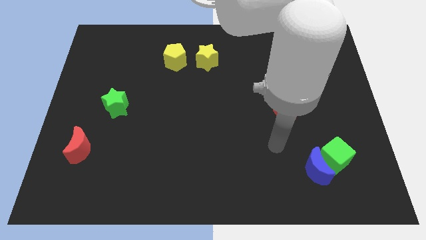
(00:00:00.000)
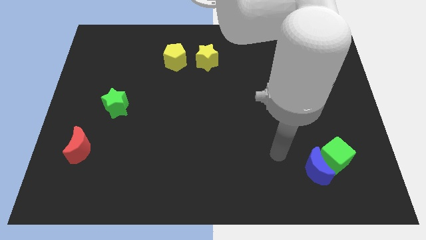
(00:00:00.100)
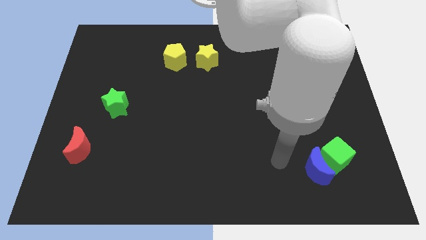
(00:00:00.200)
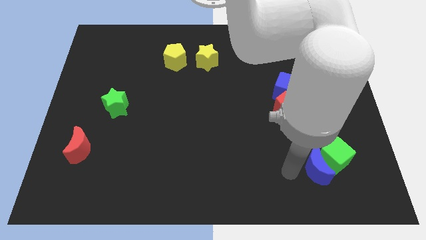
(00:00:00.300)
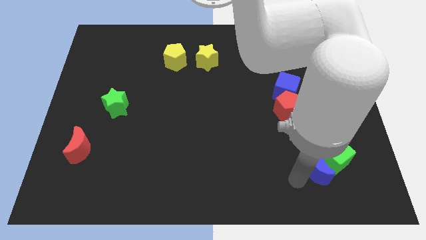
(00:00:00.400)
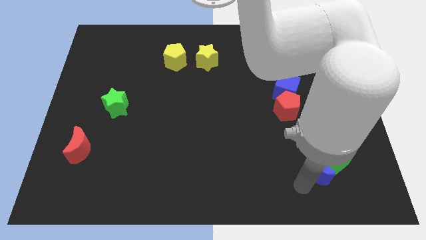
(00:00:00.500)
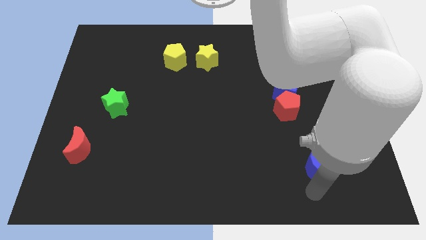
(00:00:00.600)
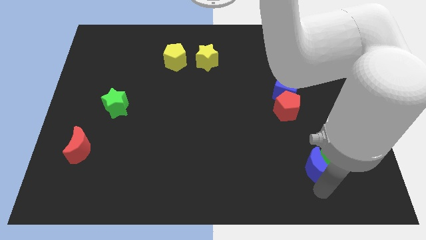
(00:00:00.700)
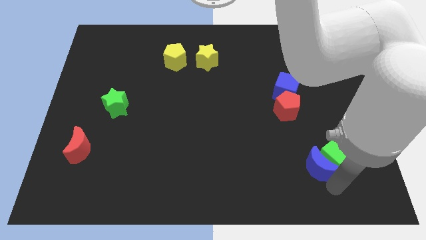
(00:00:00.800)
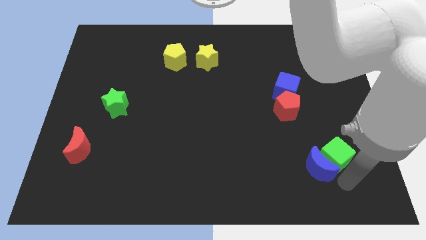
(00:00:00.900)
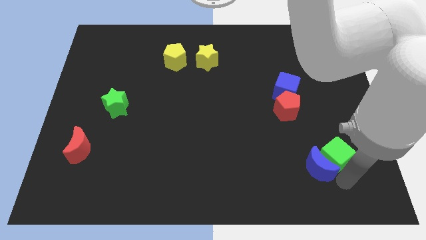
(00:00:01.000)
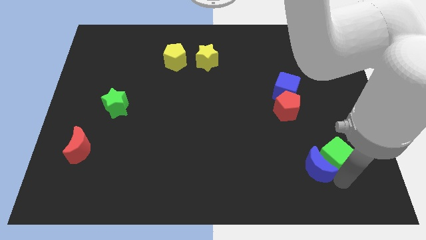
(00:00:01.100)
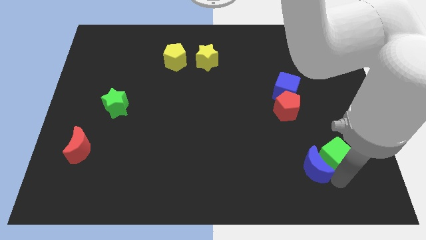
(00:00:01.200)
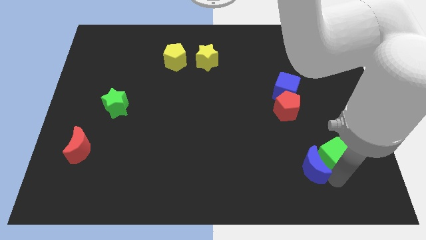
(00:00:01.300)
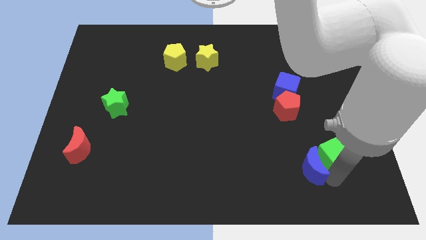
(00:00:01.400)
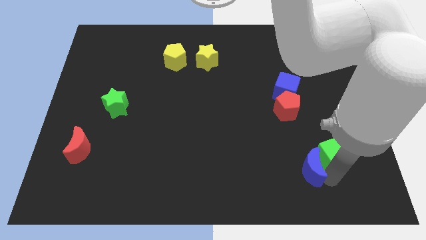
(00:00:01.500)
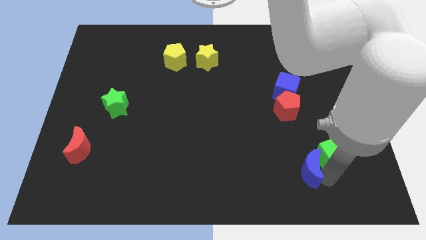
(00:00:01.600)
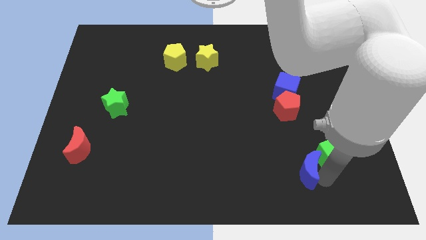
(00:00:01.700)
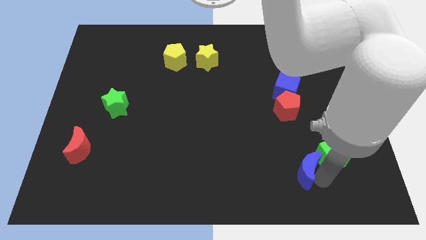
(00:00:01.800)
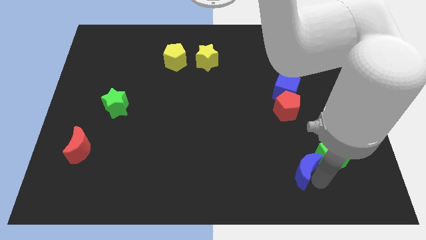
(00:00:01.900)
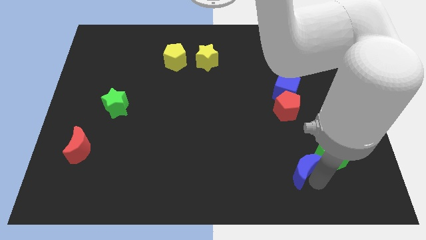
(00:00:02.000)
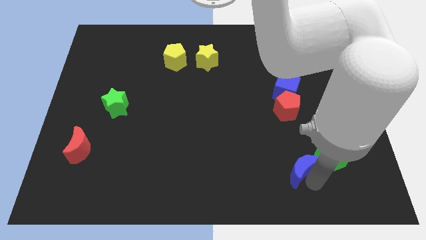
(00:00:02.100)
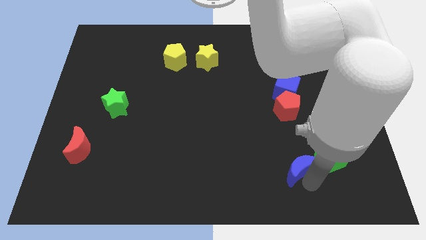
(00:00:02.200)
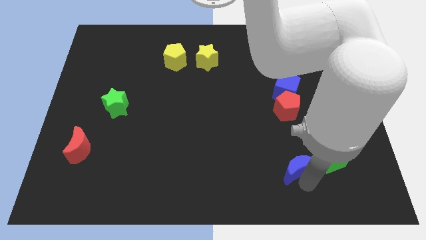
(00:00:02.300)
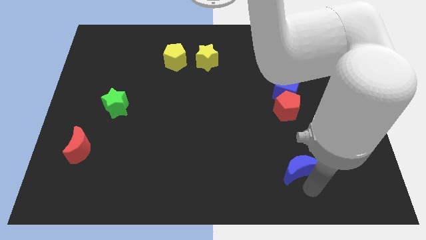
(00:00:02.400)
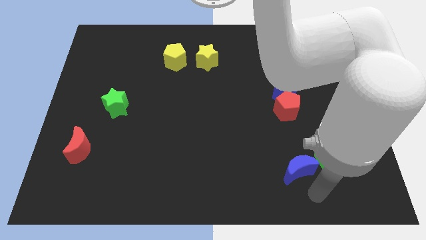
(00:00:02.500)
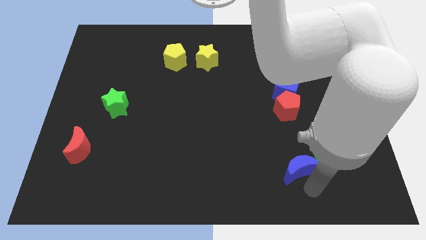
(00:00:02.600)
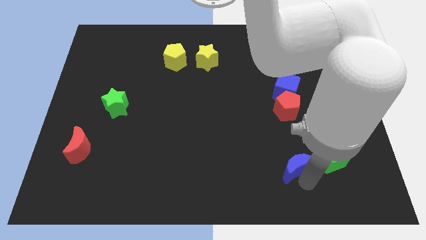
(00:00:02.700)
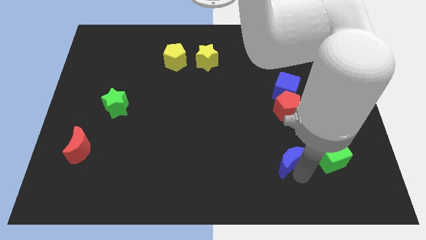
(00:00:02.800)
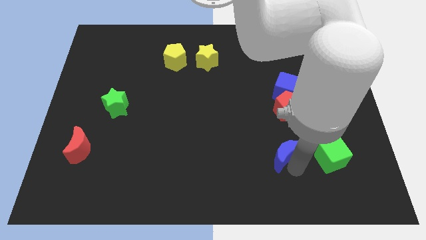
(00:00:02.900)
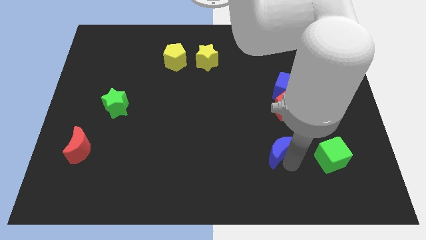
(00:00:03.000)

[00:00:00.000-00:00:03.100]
slide the blue moon diagonally up and left a little bit

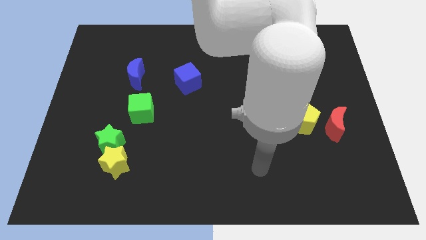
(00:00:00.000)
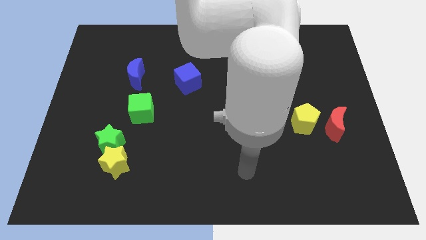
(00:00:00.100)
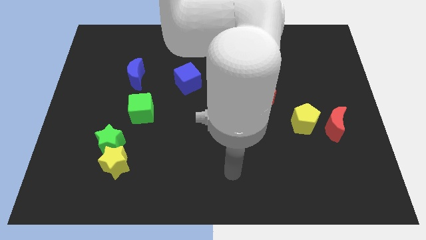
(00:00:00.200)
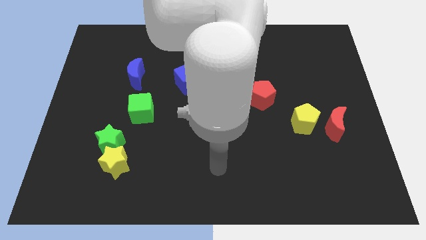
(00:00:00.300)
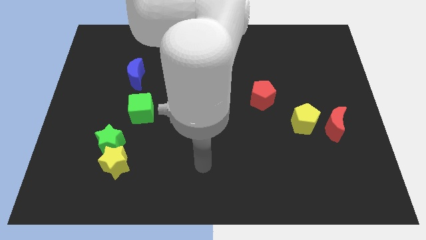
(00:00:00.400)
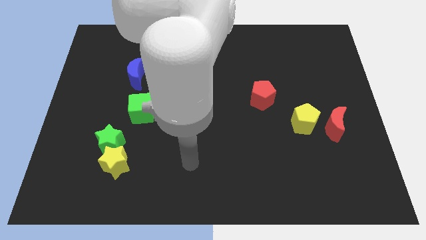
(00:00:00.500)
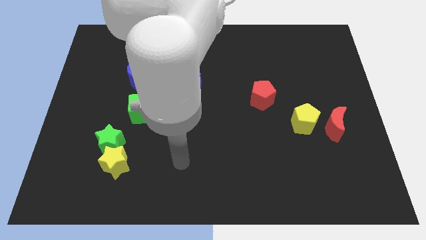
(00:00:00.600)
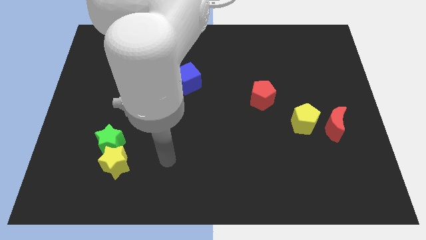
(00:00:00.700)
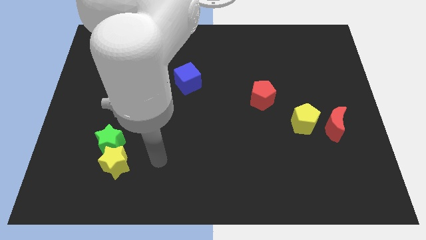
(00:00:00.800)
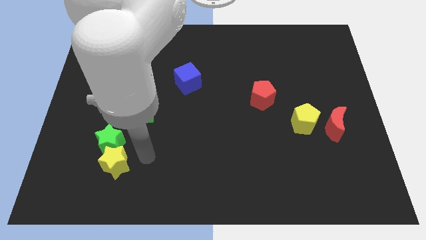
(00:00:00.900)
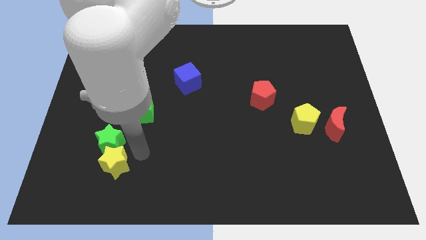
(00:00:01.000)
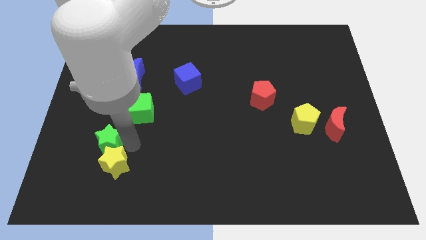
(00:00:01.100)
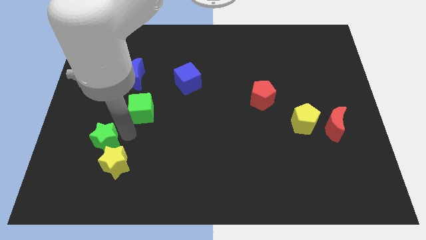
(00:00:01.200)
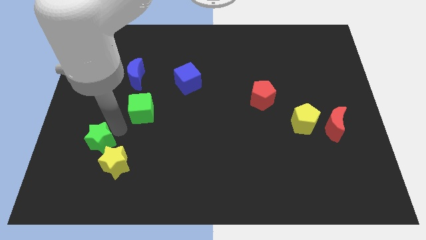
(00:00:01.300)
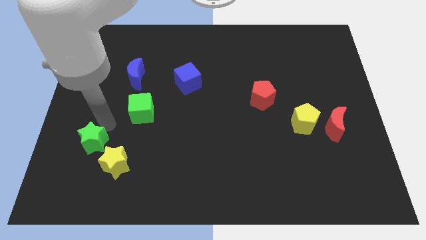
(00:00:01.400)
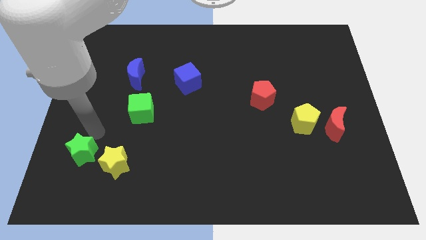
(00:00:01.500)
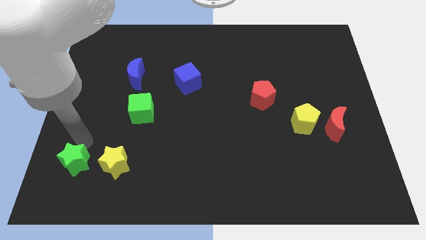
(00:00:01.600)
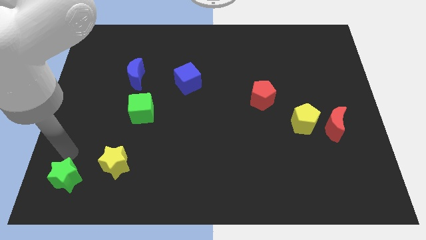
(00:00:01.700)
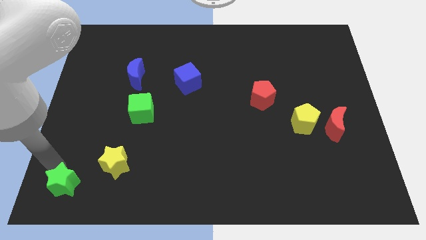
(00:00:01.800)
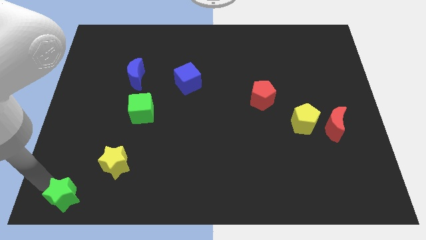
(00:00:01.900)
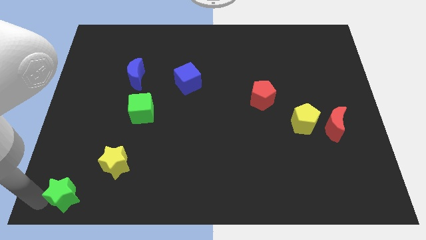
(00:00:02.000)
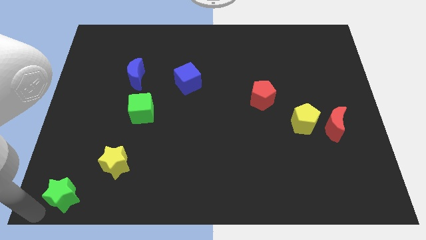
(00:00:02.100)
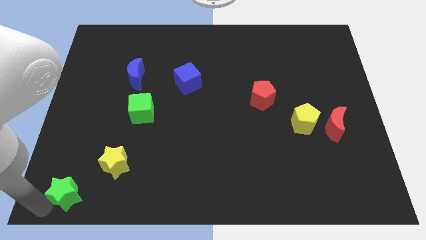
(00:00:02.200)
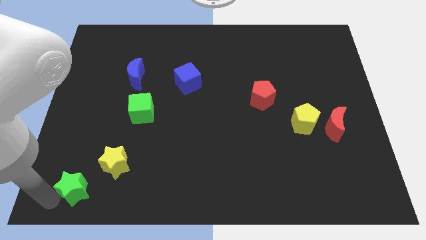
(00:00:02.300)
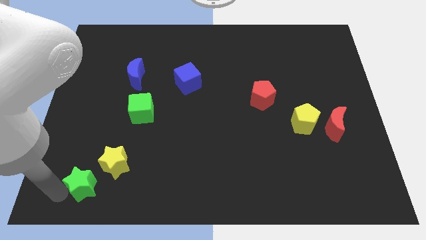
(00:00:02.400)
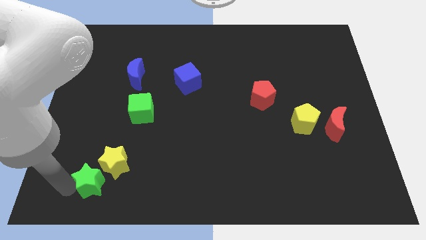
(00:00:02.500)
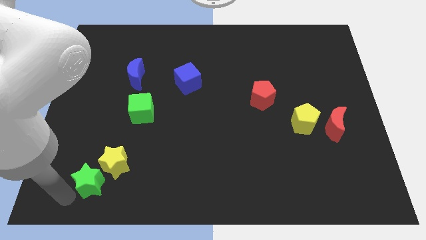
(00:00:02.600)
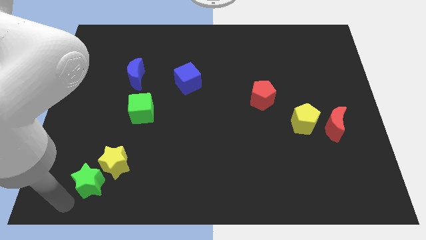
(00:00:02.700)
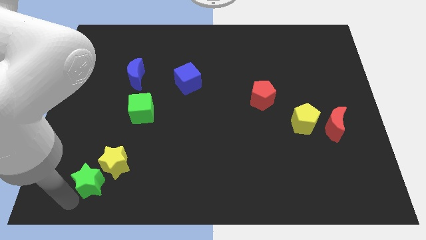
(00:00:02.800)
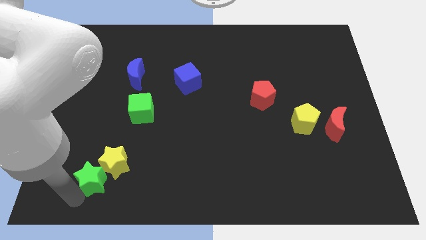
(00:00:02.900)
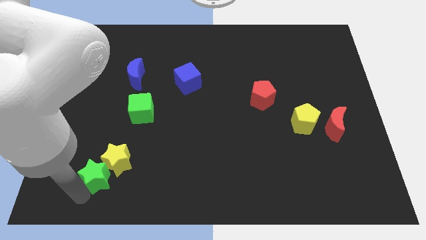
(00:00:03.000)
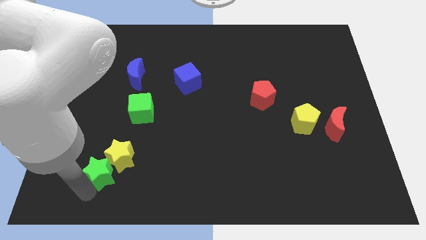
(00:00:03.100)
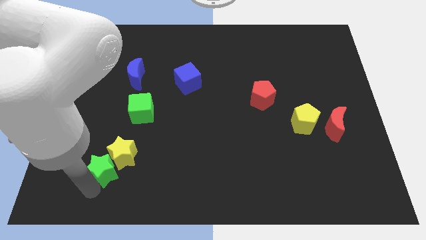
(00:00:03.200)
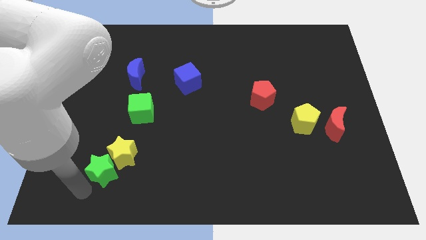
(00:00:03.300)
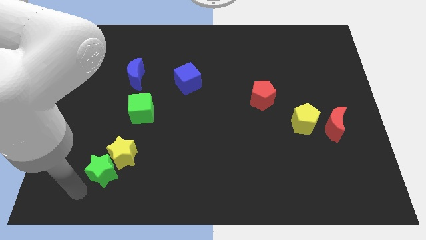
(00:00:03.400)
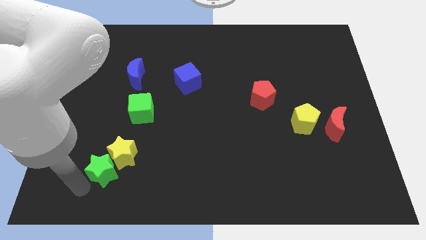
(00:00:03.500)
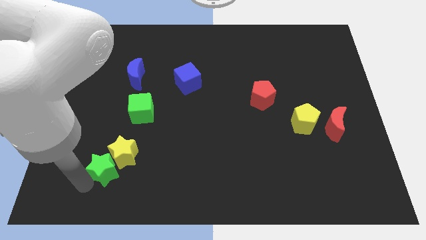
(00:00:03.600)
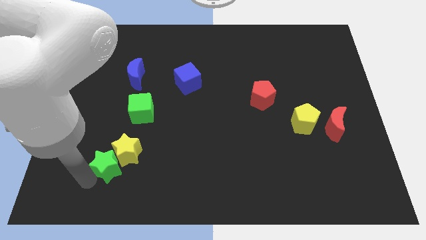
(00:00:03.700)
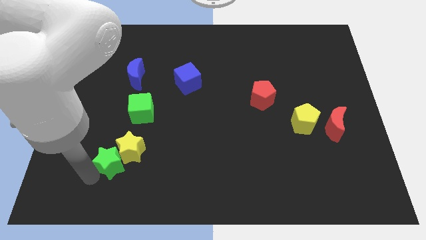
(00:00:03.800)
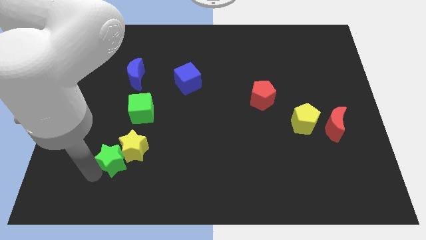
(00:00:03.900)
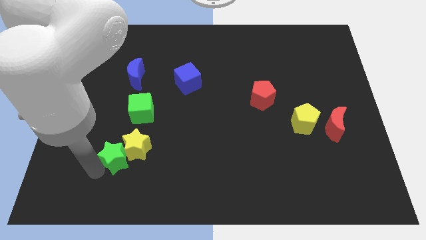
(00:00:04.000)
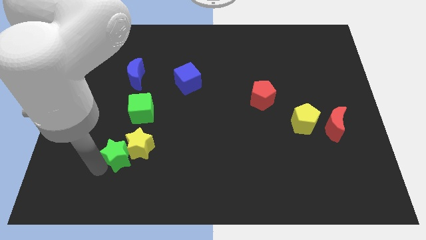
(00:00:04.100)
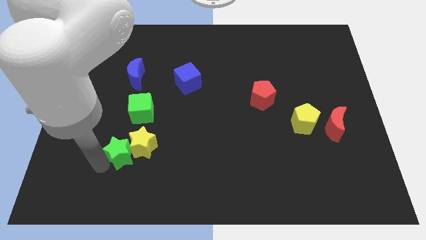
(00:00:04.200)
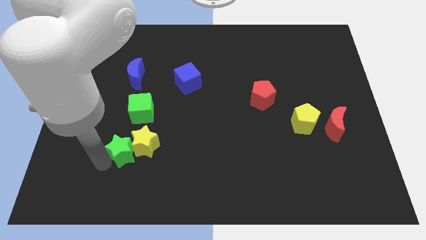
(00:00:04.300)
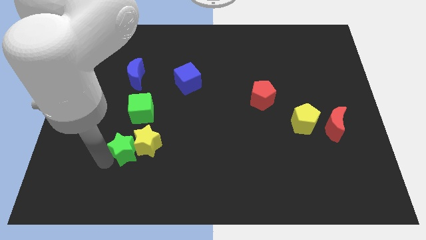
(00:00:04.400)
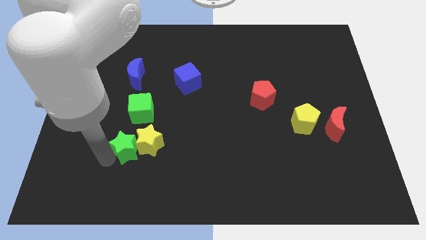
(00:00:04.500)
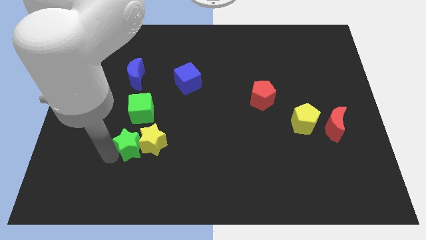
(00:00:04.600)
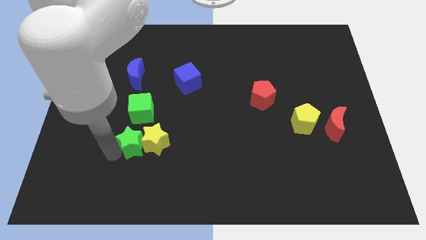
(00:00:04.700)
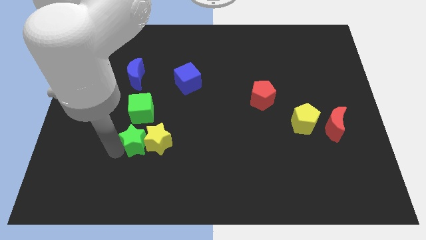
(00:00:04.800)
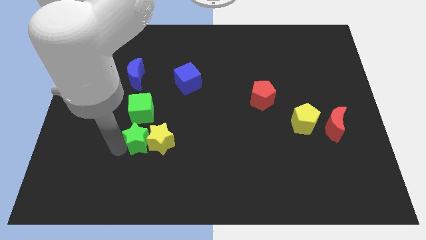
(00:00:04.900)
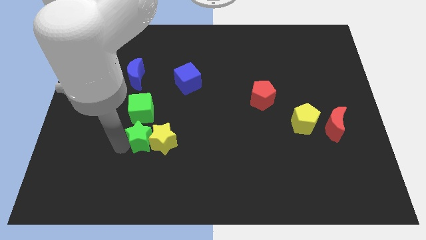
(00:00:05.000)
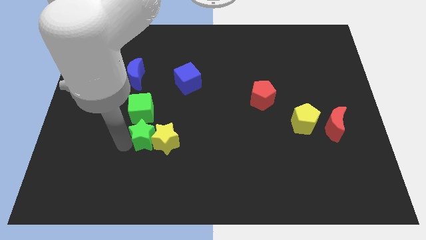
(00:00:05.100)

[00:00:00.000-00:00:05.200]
slide the green star right a little

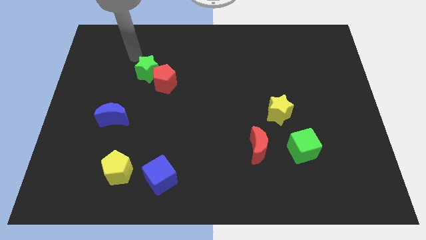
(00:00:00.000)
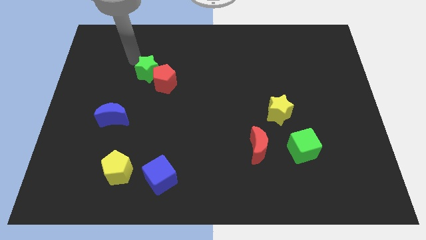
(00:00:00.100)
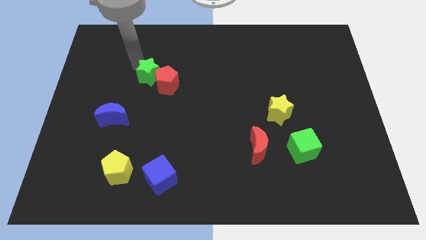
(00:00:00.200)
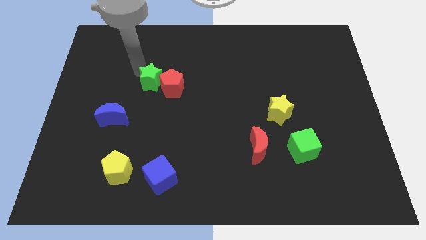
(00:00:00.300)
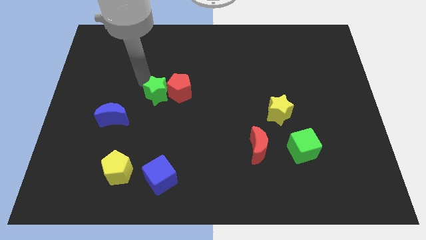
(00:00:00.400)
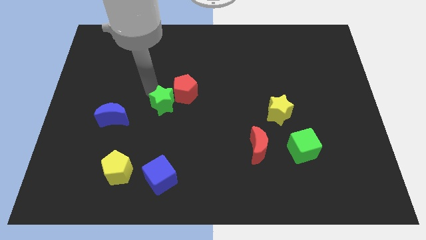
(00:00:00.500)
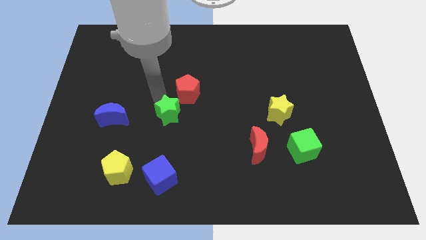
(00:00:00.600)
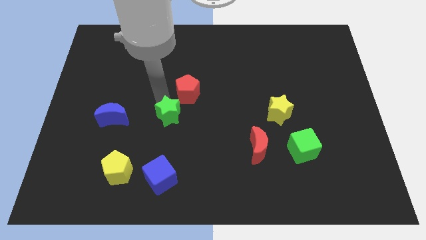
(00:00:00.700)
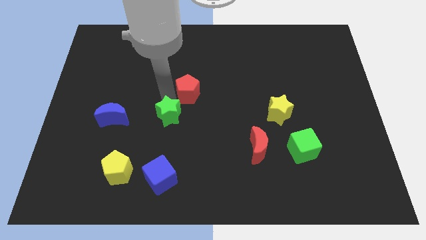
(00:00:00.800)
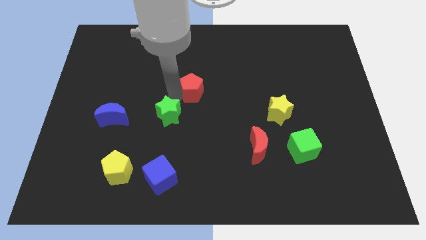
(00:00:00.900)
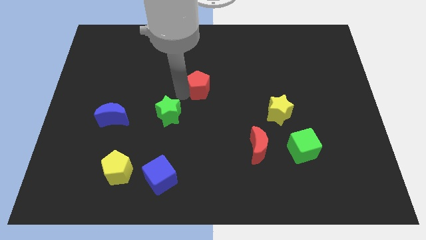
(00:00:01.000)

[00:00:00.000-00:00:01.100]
slide the red pentagon slightly right
